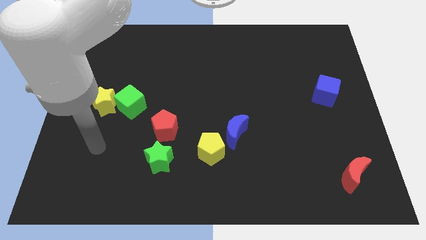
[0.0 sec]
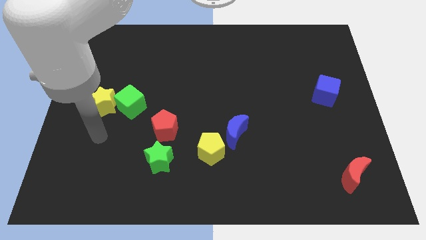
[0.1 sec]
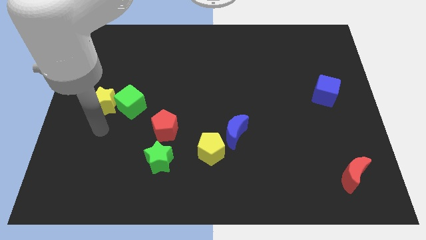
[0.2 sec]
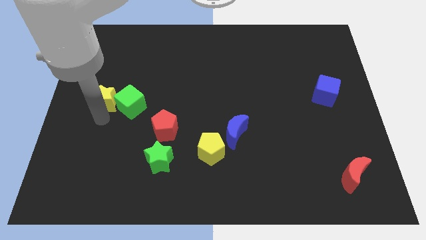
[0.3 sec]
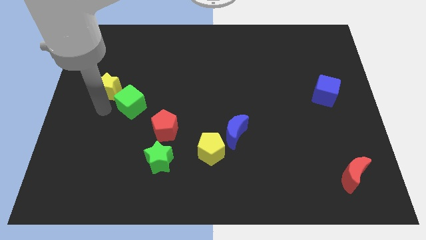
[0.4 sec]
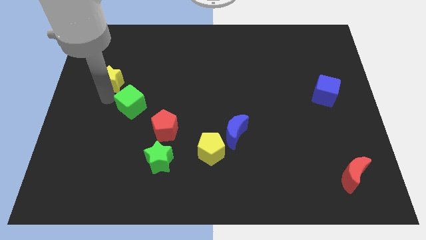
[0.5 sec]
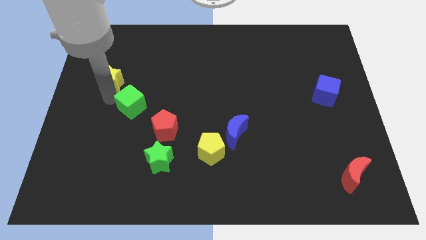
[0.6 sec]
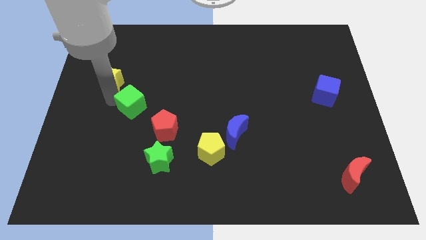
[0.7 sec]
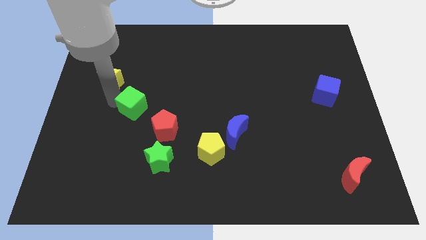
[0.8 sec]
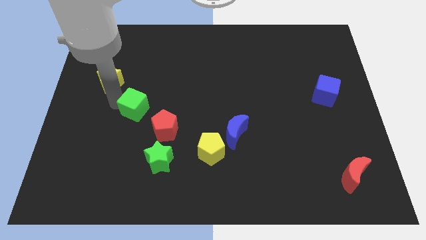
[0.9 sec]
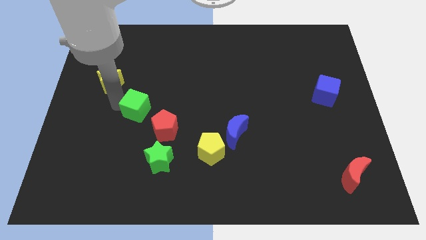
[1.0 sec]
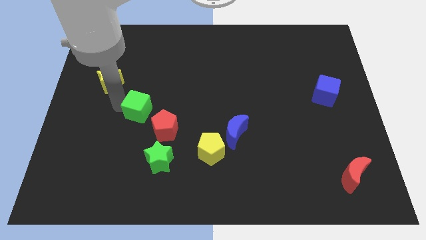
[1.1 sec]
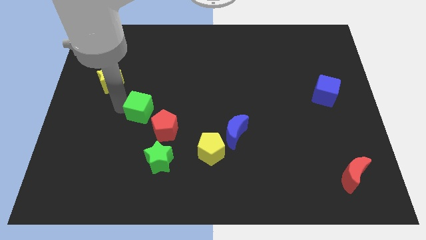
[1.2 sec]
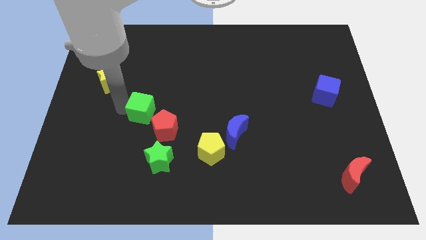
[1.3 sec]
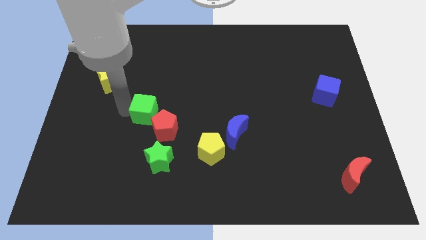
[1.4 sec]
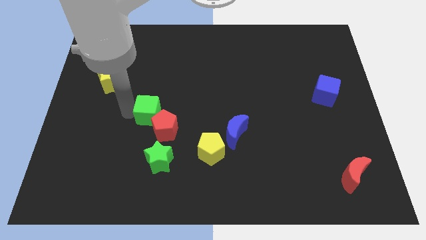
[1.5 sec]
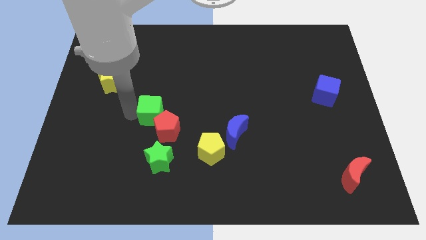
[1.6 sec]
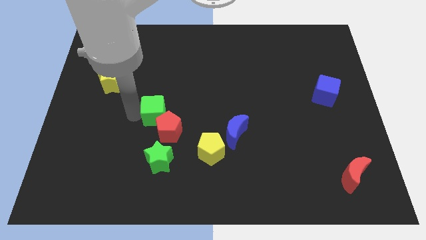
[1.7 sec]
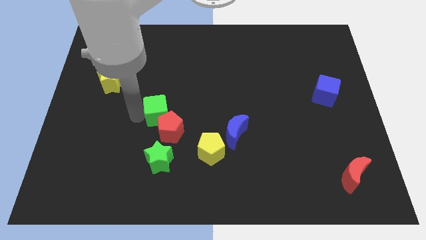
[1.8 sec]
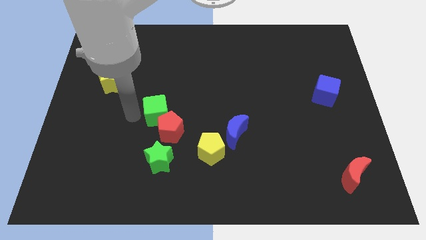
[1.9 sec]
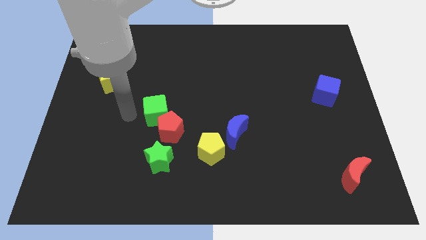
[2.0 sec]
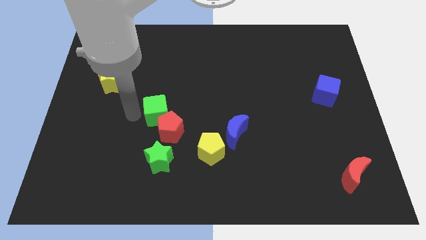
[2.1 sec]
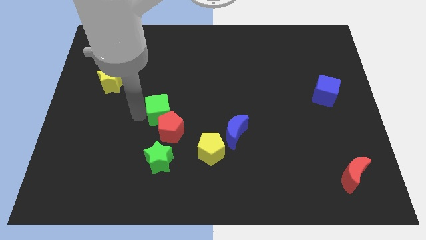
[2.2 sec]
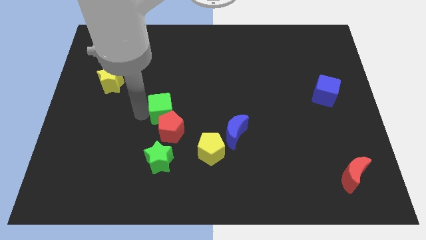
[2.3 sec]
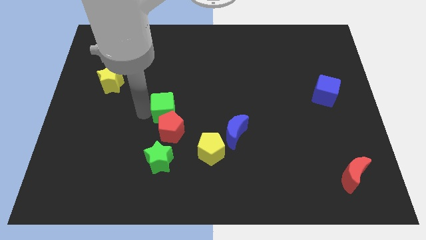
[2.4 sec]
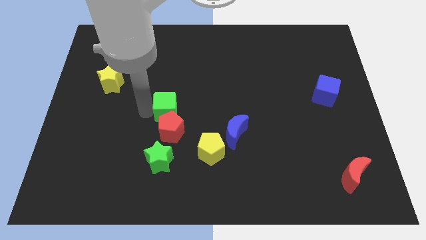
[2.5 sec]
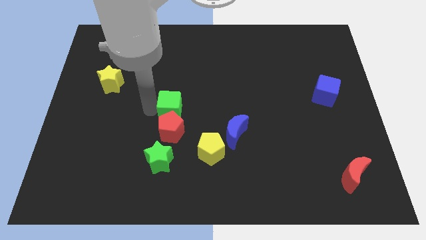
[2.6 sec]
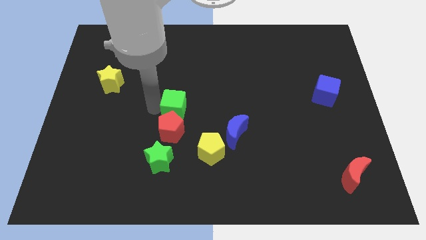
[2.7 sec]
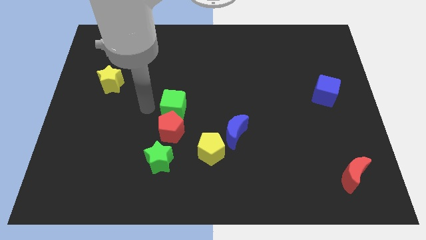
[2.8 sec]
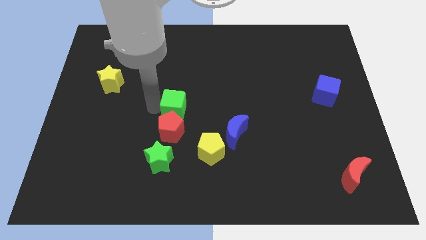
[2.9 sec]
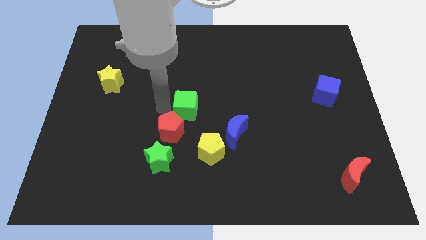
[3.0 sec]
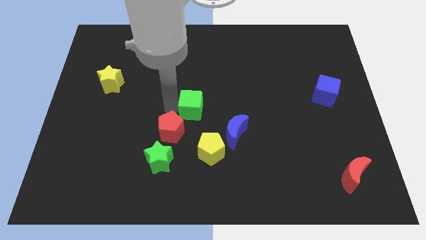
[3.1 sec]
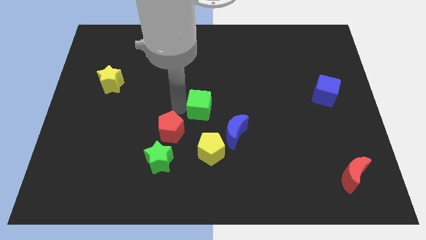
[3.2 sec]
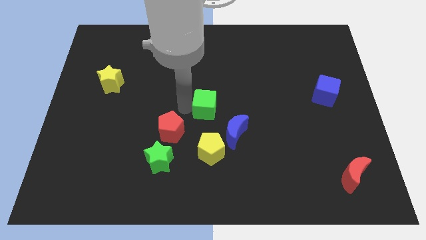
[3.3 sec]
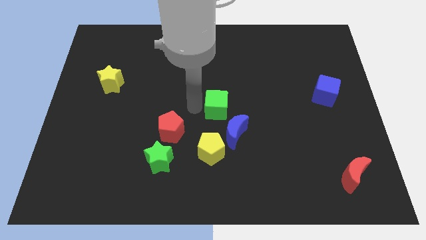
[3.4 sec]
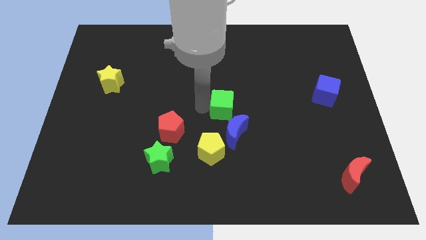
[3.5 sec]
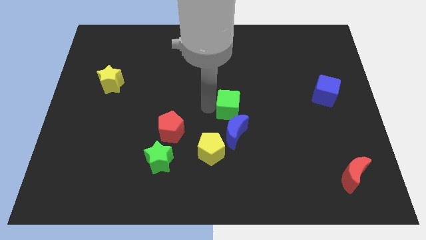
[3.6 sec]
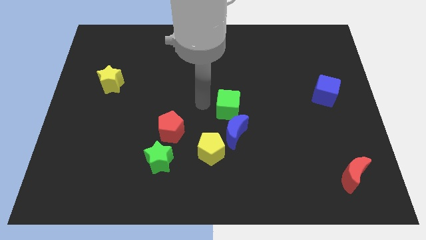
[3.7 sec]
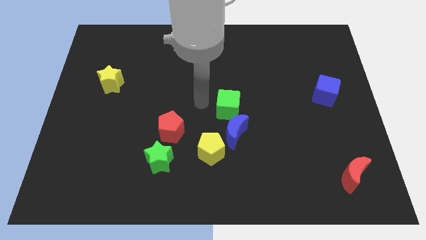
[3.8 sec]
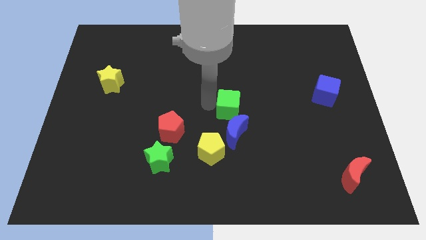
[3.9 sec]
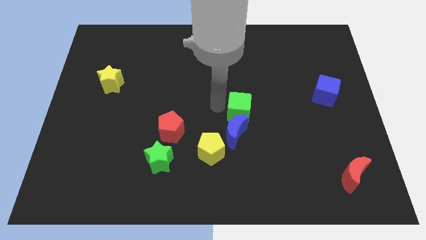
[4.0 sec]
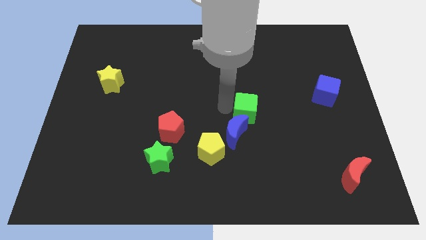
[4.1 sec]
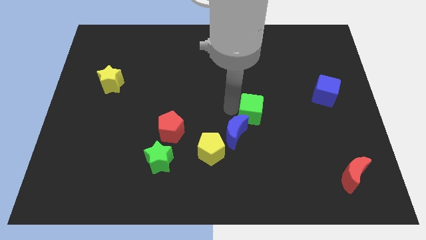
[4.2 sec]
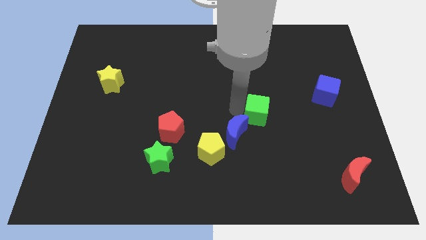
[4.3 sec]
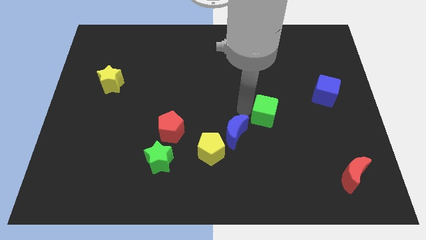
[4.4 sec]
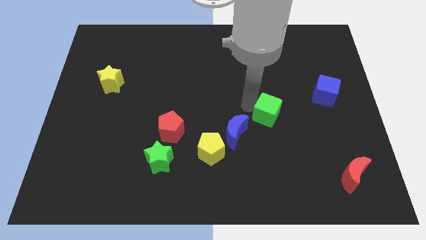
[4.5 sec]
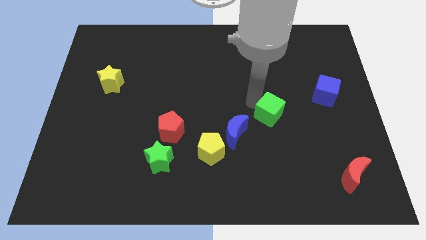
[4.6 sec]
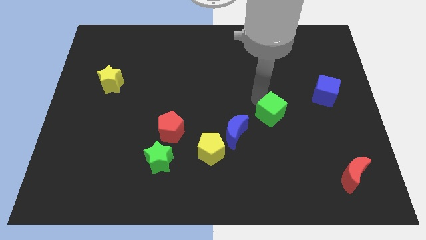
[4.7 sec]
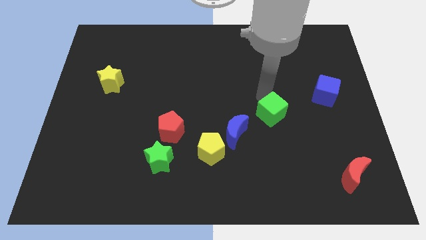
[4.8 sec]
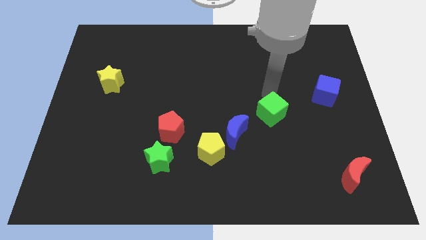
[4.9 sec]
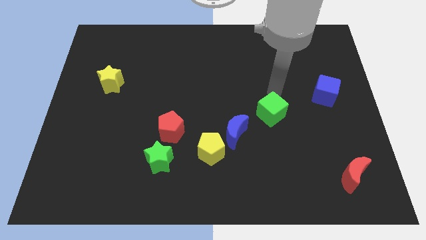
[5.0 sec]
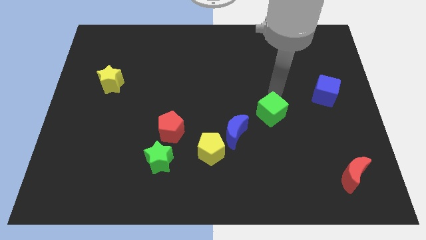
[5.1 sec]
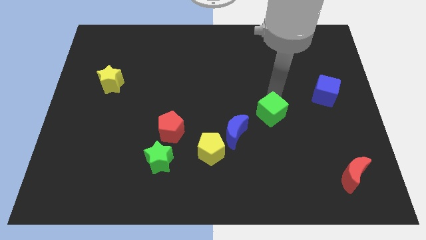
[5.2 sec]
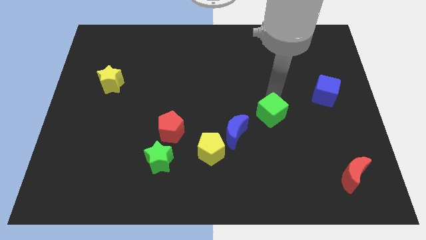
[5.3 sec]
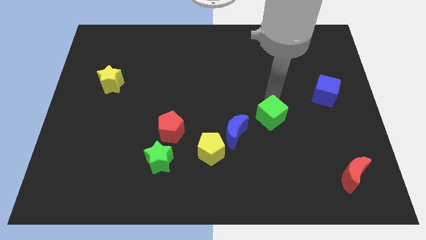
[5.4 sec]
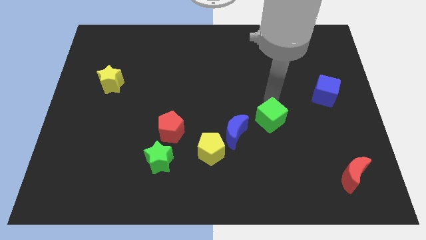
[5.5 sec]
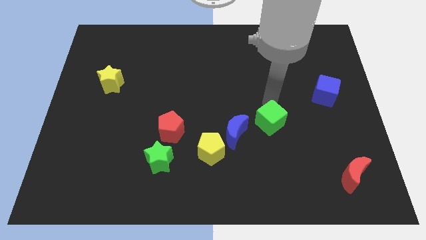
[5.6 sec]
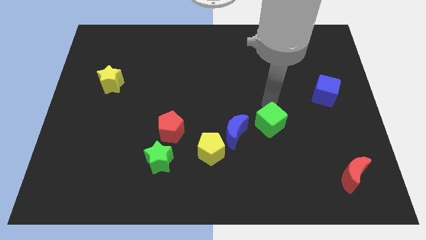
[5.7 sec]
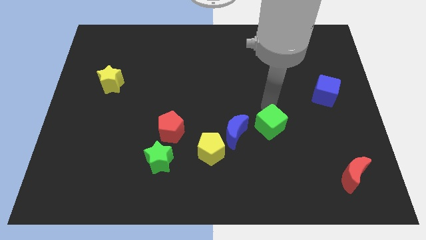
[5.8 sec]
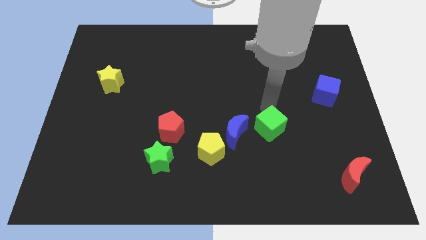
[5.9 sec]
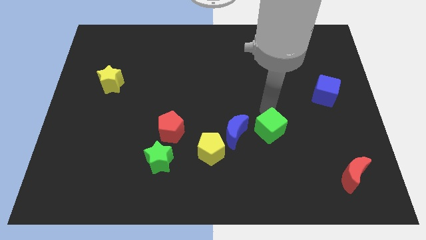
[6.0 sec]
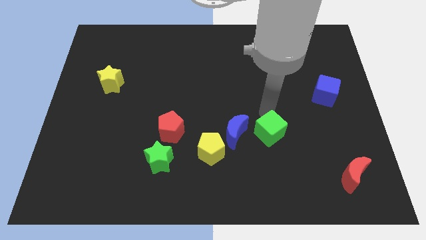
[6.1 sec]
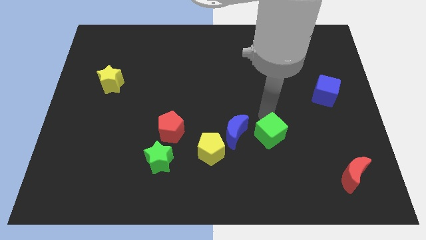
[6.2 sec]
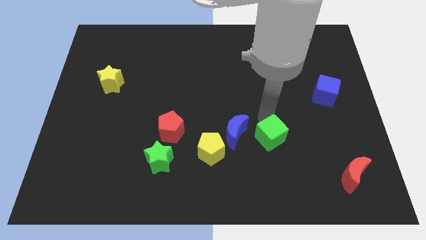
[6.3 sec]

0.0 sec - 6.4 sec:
put the green cube diagonally down and to the right of the blue moon

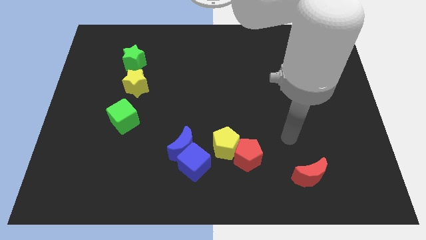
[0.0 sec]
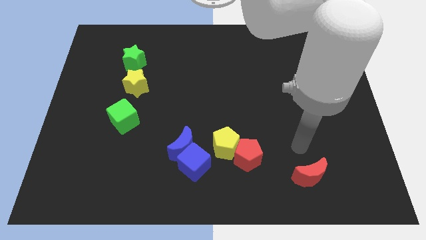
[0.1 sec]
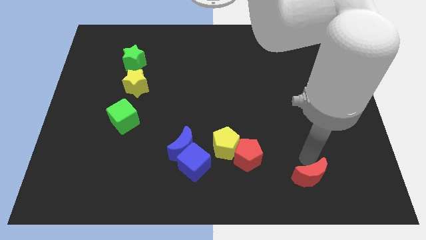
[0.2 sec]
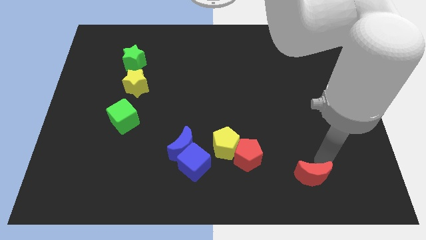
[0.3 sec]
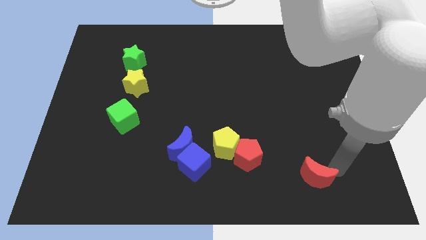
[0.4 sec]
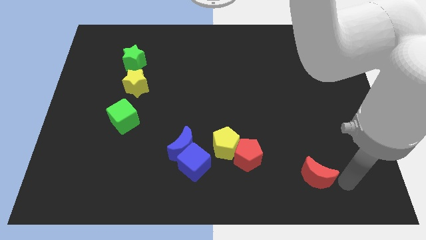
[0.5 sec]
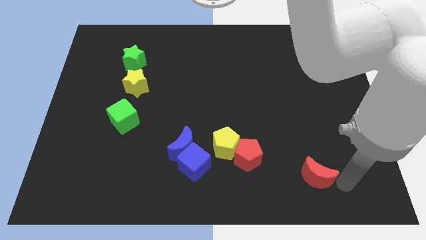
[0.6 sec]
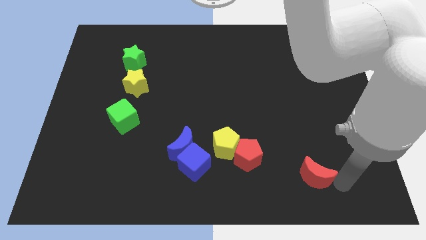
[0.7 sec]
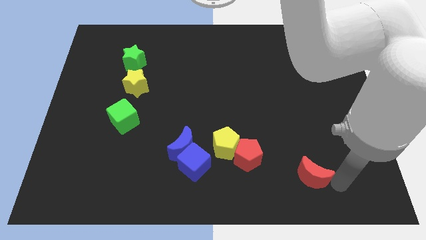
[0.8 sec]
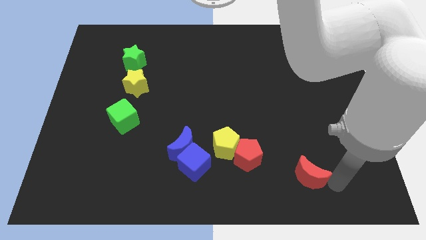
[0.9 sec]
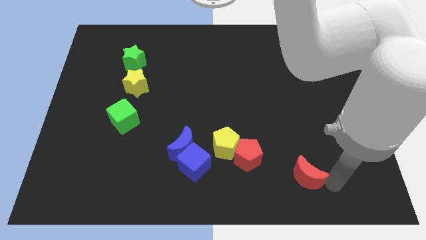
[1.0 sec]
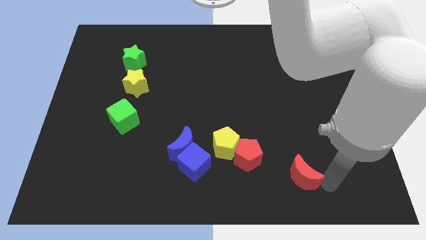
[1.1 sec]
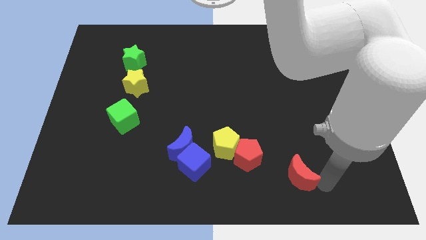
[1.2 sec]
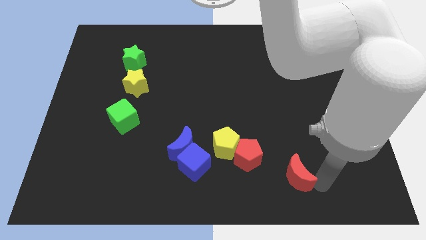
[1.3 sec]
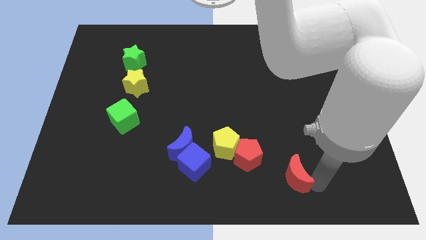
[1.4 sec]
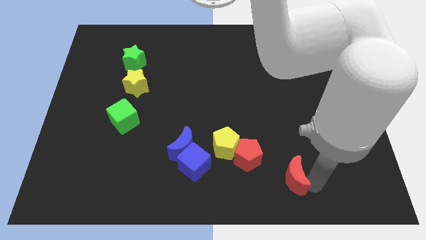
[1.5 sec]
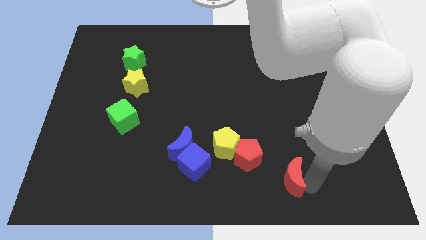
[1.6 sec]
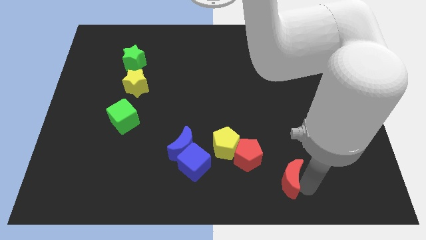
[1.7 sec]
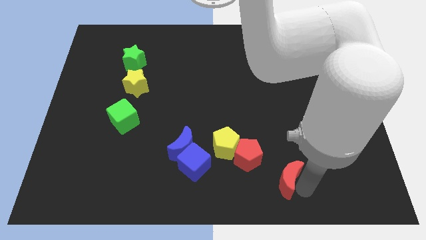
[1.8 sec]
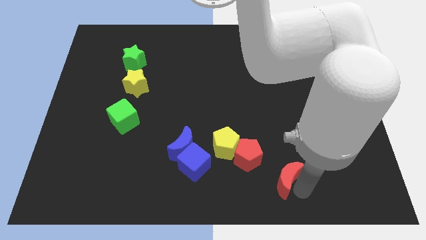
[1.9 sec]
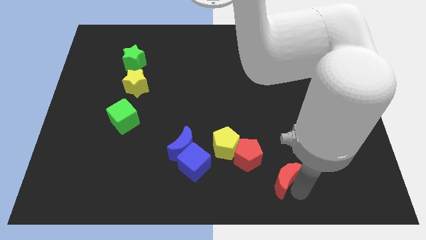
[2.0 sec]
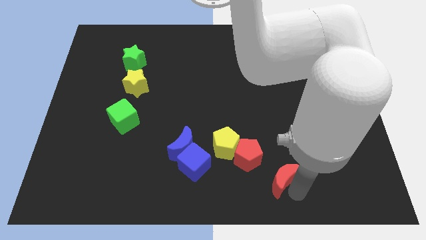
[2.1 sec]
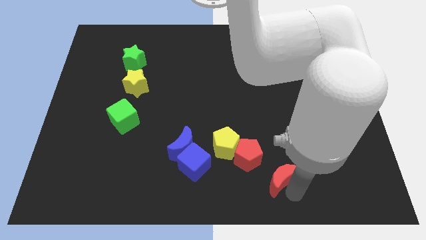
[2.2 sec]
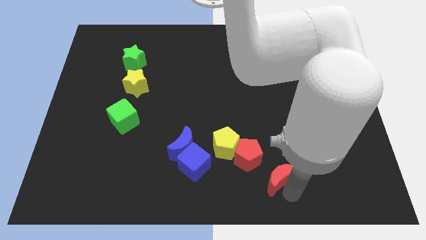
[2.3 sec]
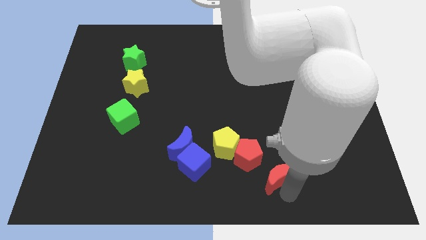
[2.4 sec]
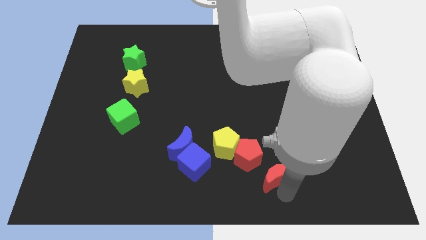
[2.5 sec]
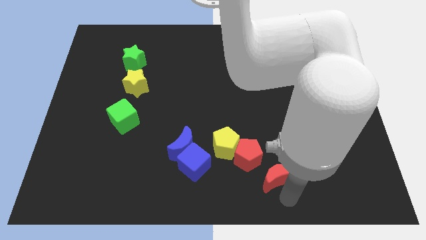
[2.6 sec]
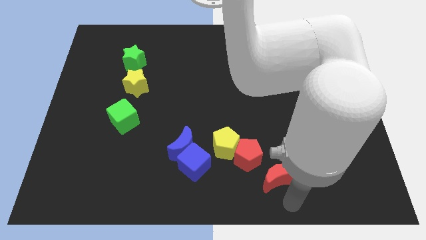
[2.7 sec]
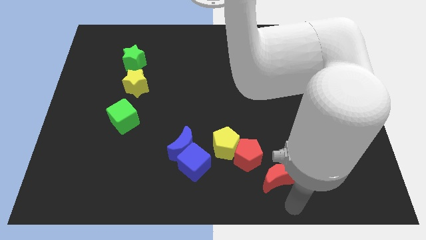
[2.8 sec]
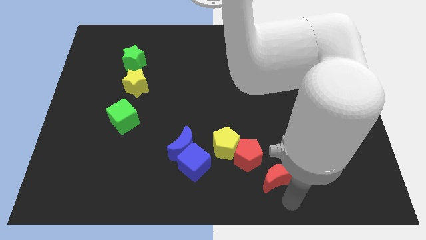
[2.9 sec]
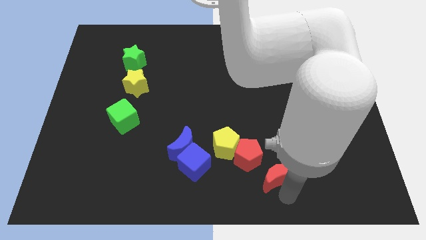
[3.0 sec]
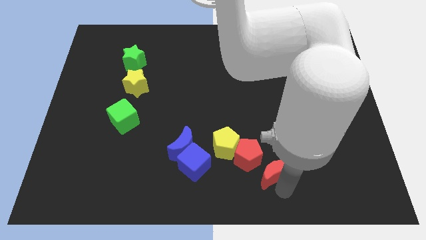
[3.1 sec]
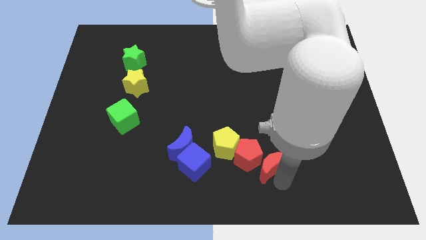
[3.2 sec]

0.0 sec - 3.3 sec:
push the red moon to the right of the blue cube
